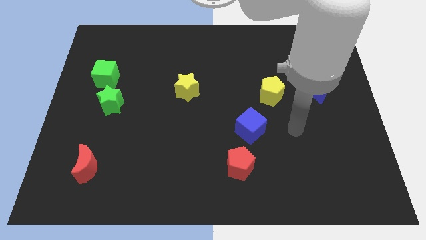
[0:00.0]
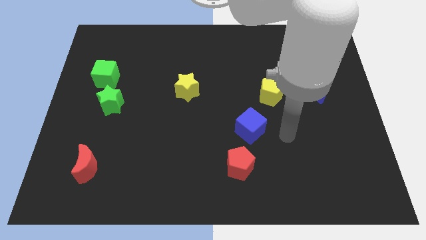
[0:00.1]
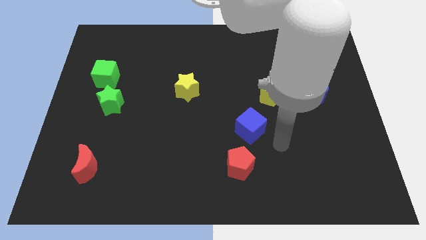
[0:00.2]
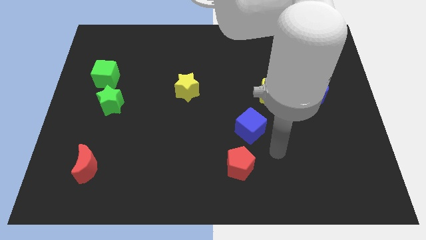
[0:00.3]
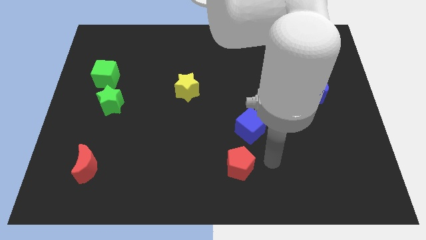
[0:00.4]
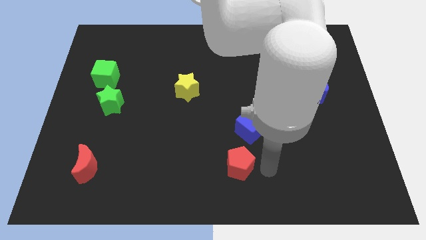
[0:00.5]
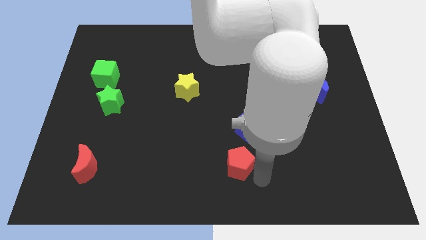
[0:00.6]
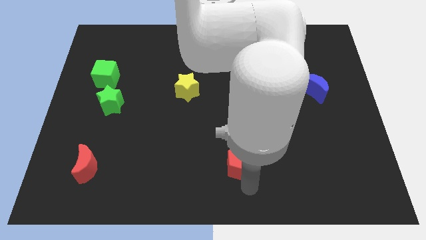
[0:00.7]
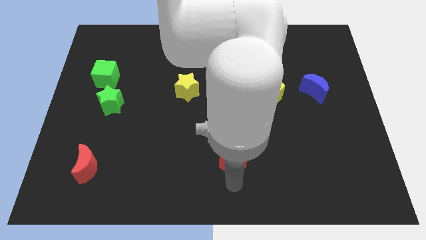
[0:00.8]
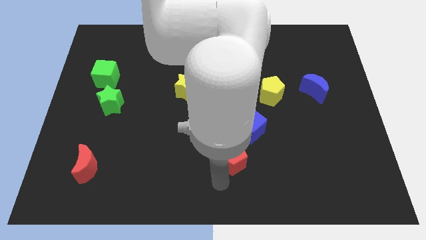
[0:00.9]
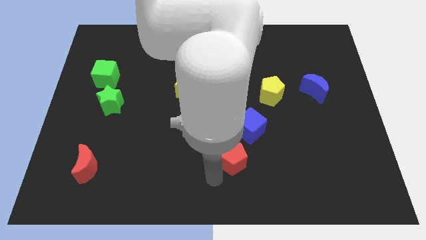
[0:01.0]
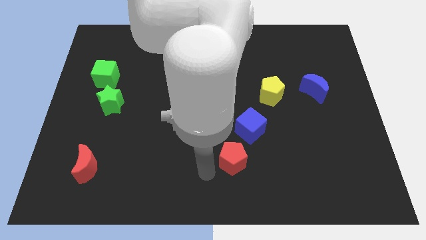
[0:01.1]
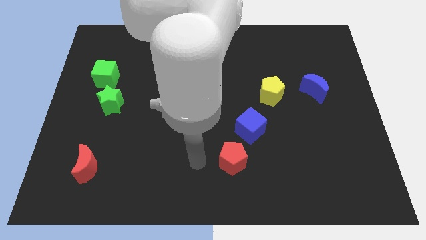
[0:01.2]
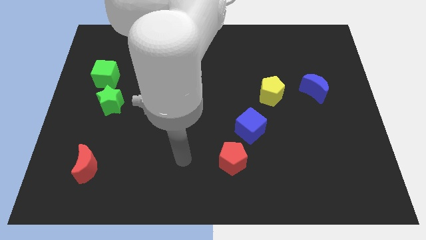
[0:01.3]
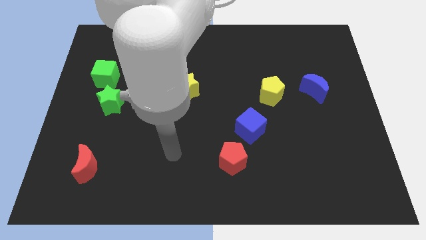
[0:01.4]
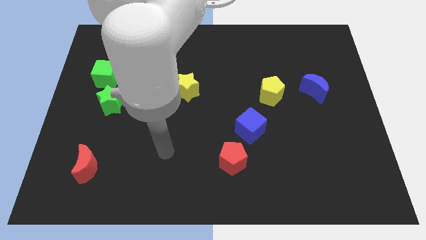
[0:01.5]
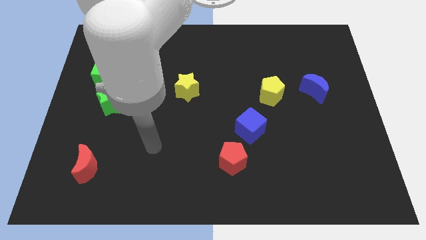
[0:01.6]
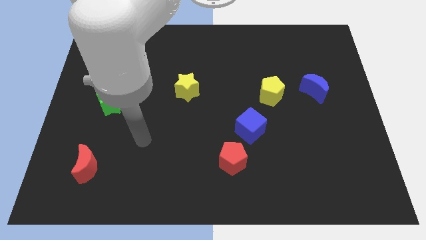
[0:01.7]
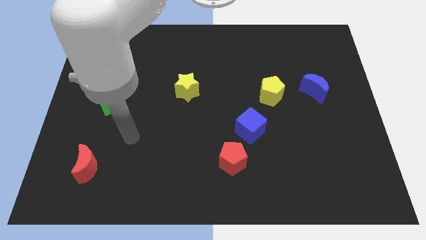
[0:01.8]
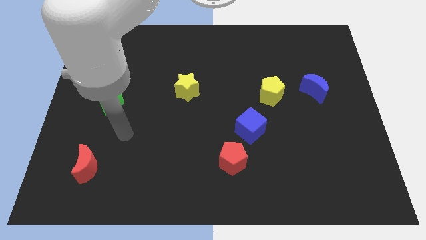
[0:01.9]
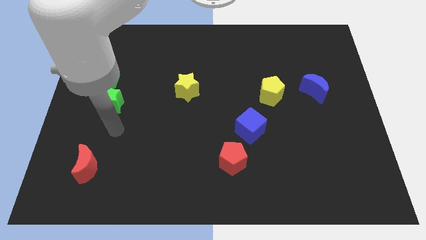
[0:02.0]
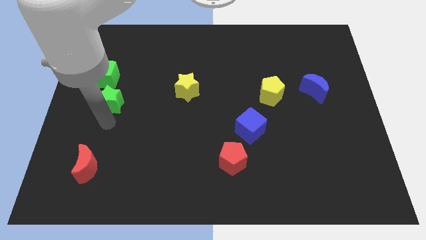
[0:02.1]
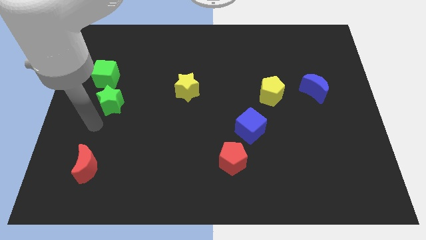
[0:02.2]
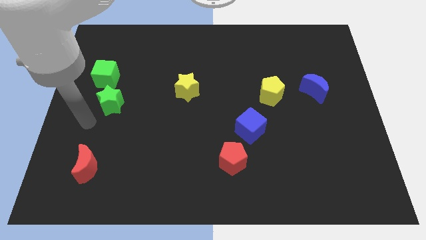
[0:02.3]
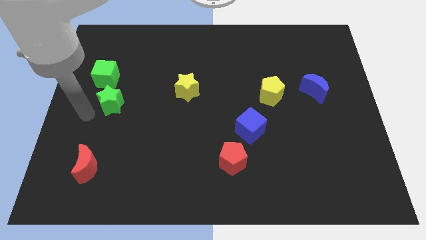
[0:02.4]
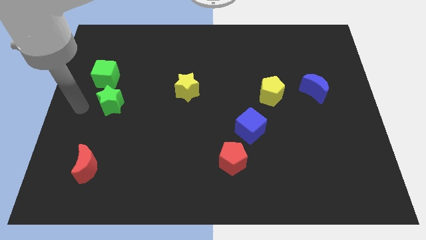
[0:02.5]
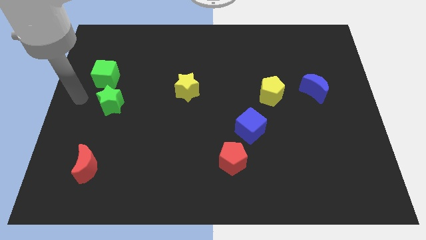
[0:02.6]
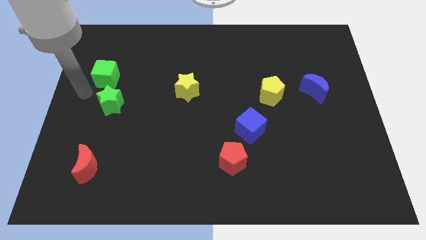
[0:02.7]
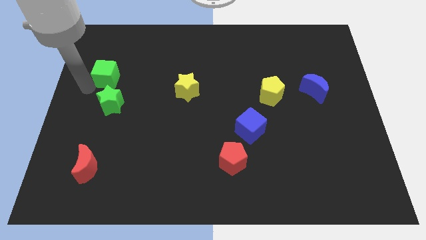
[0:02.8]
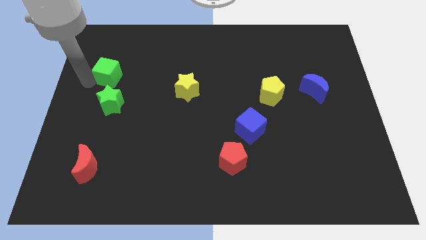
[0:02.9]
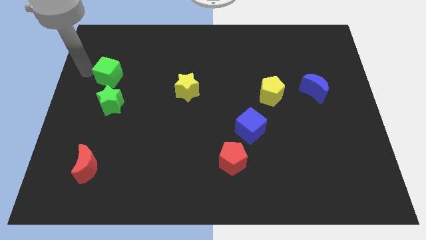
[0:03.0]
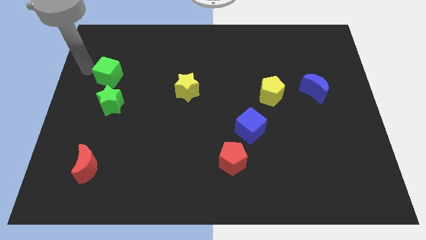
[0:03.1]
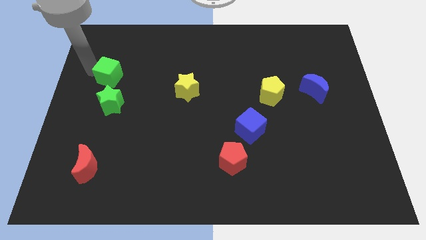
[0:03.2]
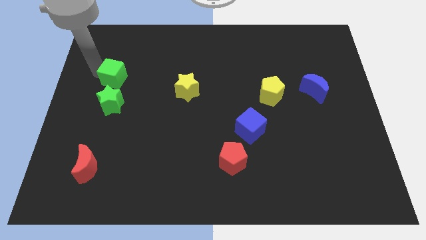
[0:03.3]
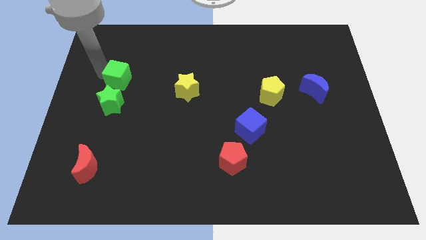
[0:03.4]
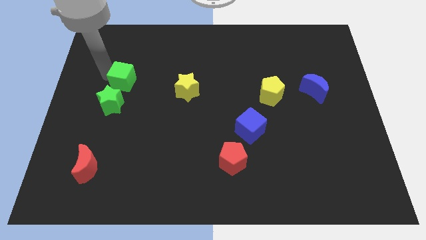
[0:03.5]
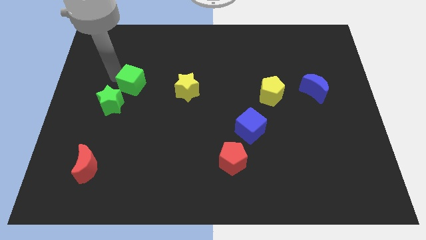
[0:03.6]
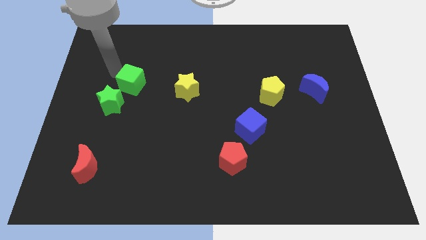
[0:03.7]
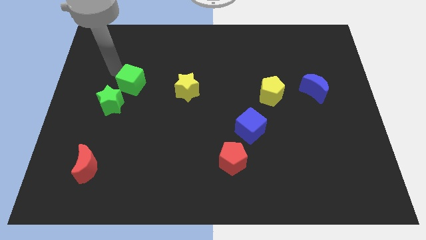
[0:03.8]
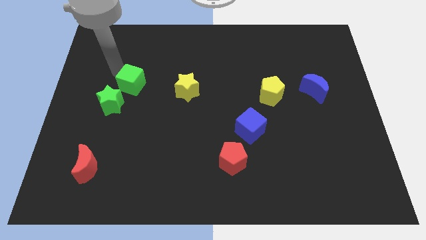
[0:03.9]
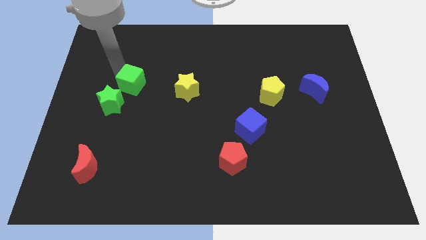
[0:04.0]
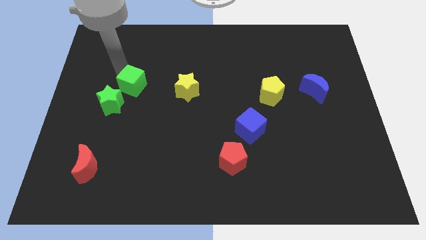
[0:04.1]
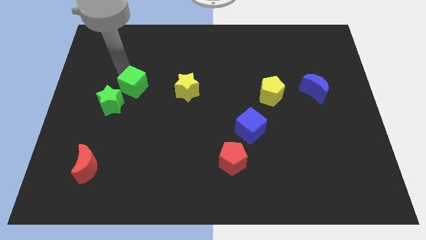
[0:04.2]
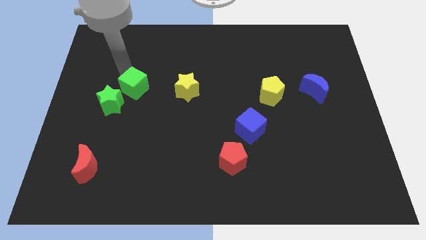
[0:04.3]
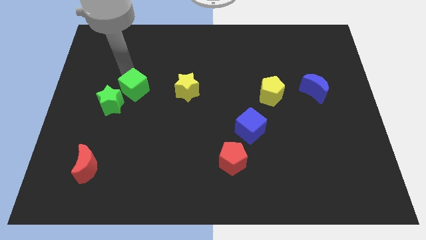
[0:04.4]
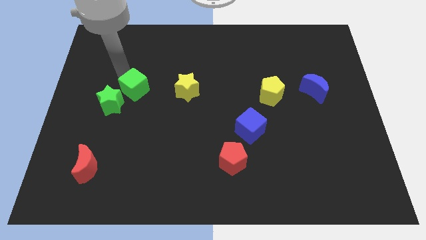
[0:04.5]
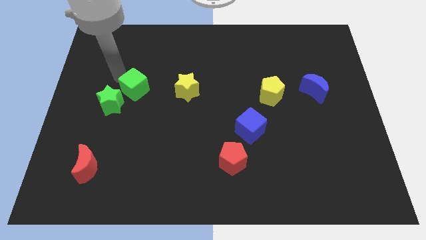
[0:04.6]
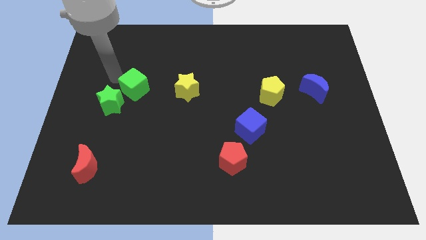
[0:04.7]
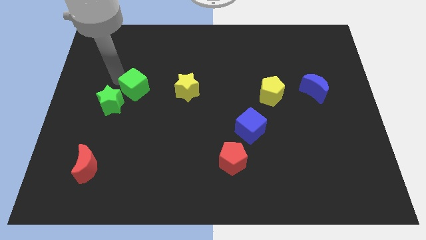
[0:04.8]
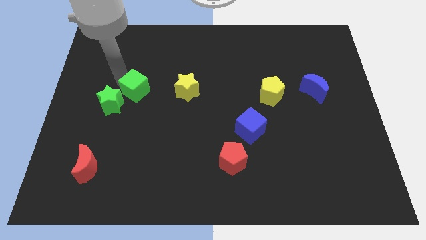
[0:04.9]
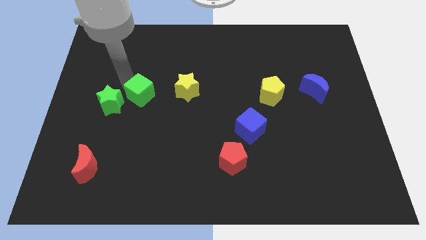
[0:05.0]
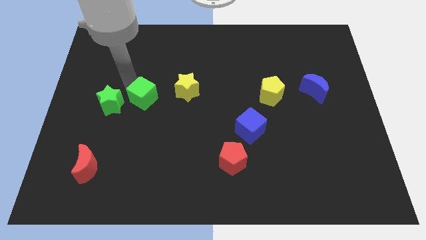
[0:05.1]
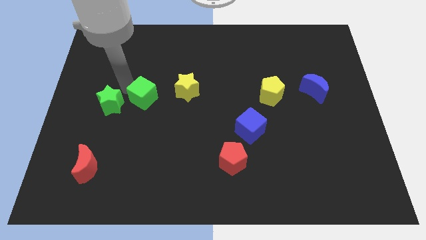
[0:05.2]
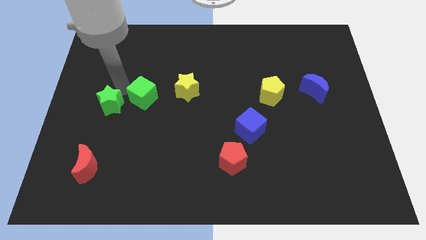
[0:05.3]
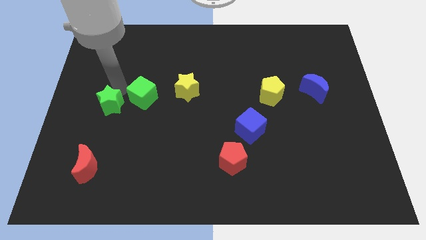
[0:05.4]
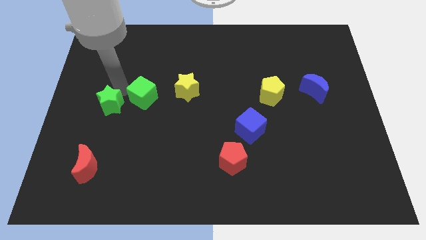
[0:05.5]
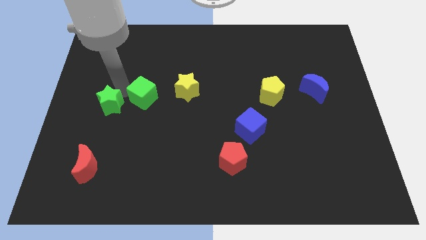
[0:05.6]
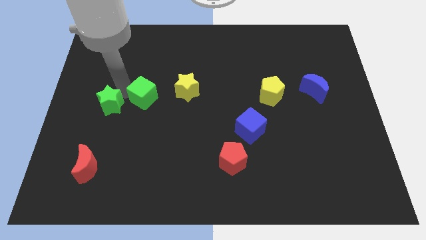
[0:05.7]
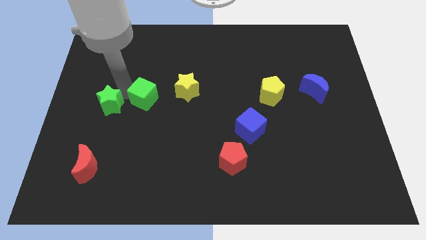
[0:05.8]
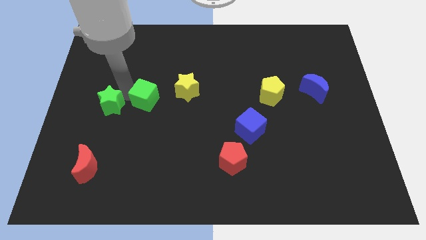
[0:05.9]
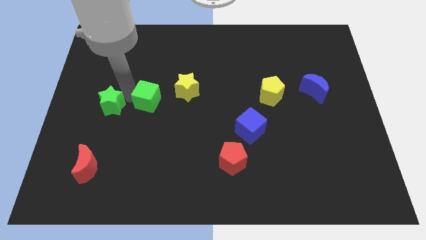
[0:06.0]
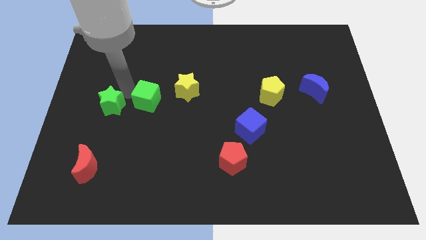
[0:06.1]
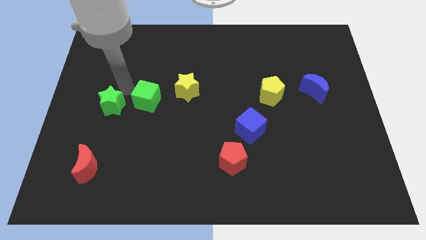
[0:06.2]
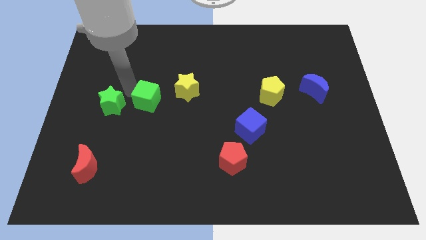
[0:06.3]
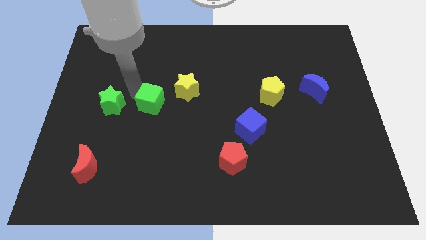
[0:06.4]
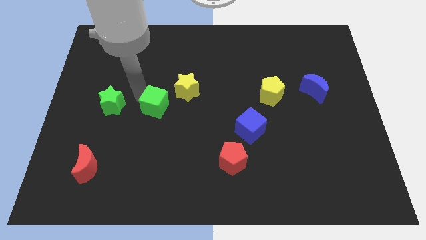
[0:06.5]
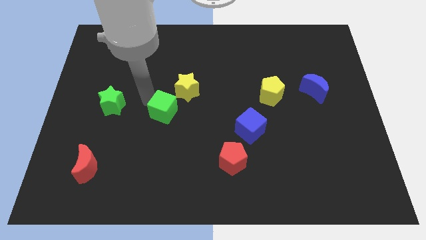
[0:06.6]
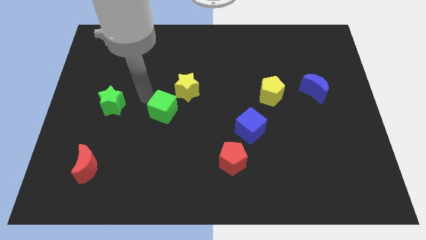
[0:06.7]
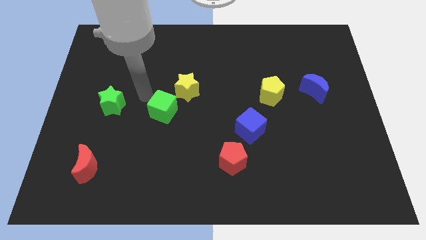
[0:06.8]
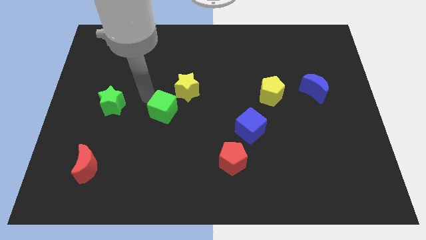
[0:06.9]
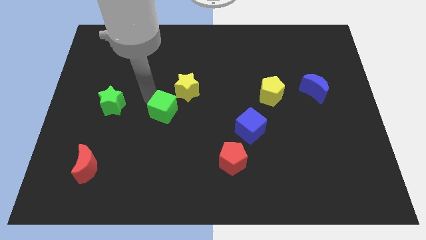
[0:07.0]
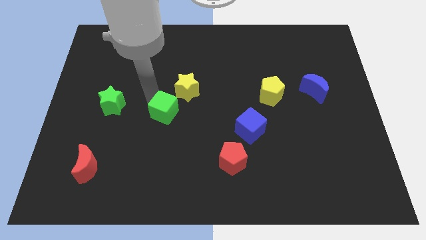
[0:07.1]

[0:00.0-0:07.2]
slide the green cube below the yellow star

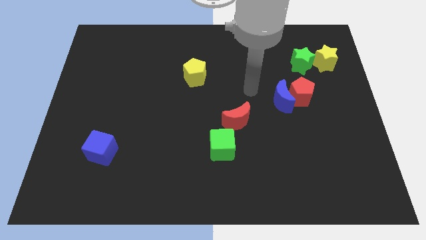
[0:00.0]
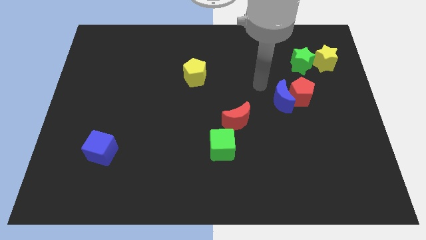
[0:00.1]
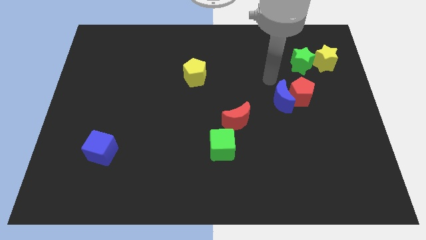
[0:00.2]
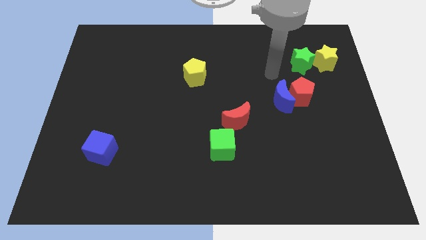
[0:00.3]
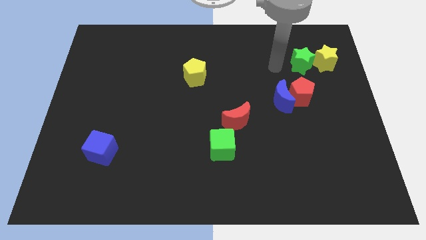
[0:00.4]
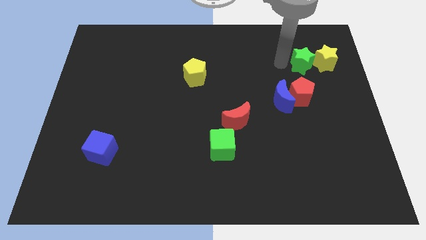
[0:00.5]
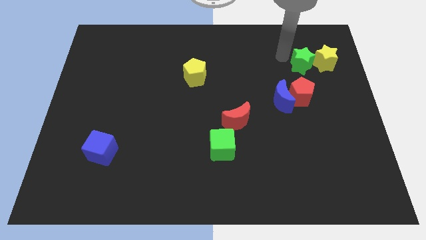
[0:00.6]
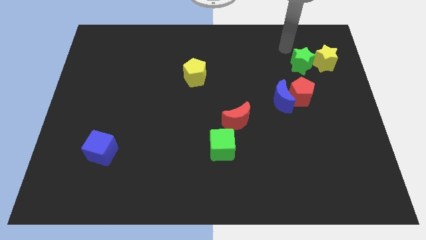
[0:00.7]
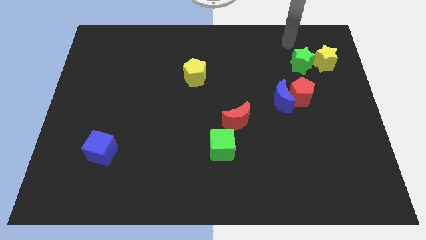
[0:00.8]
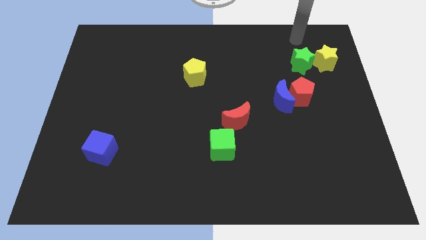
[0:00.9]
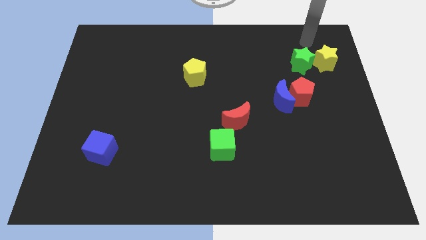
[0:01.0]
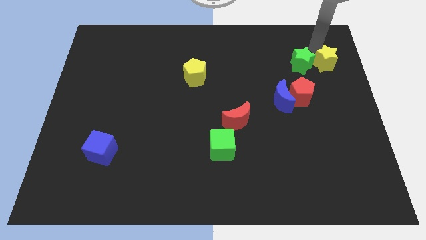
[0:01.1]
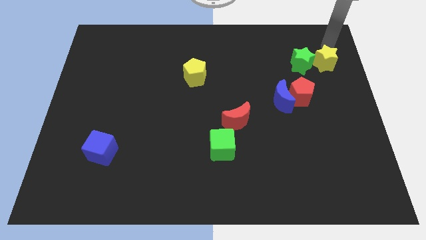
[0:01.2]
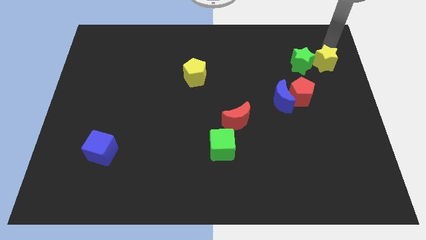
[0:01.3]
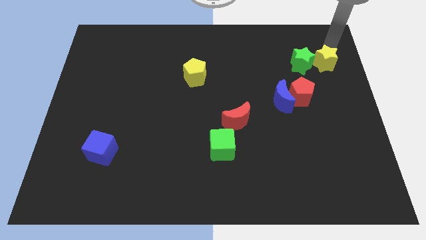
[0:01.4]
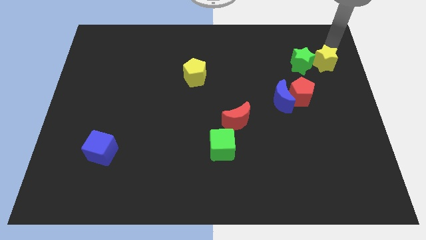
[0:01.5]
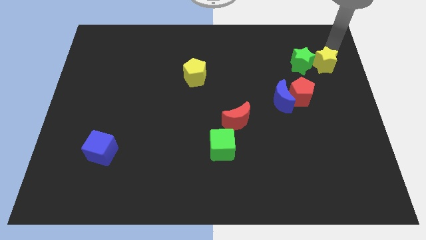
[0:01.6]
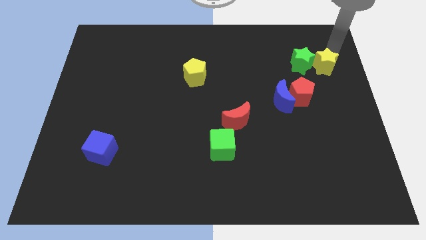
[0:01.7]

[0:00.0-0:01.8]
put the yellow star diagonally up and to the right of the red pentagon
